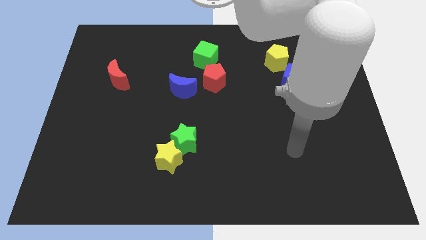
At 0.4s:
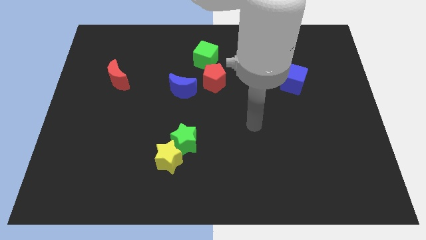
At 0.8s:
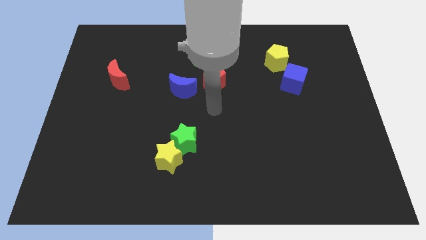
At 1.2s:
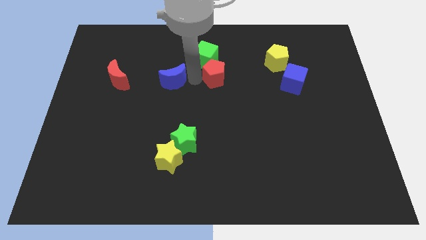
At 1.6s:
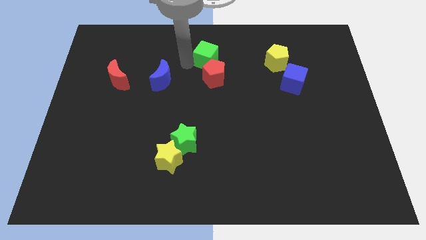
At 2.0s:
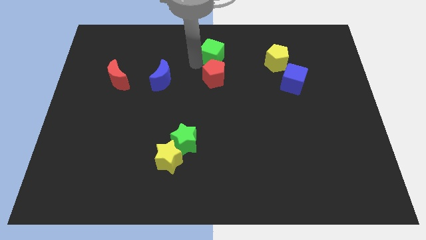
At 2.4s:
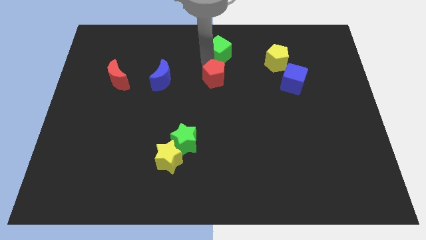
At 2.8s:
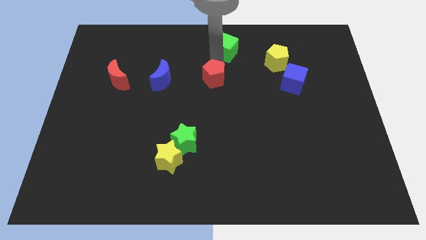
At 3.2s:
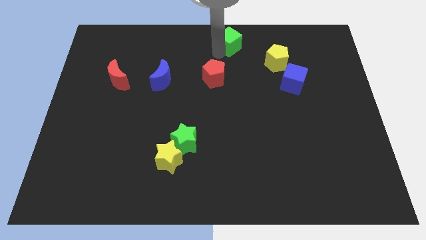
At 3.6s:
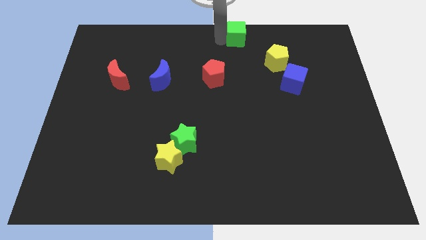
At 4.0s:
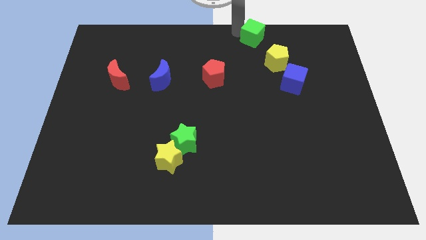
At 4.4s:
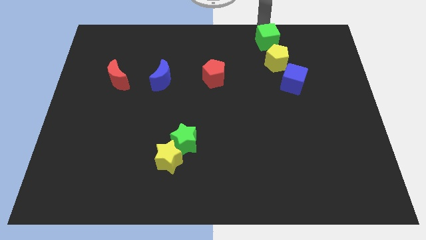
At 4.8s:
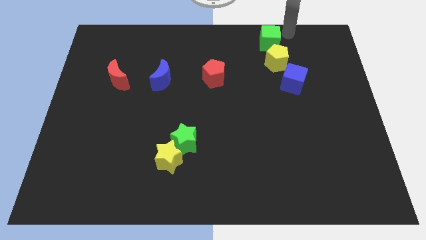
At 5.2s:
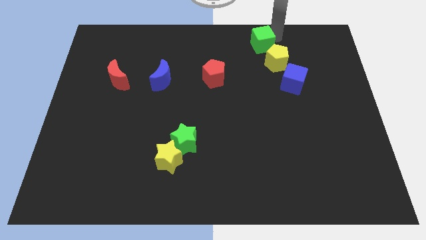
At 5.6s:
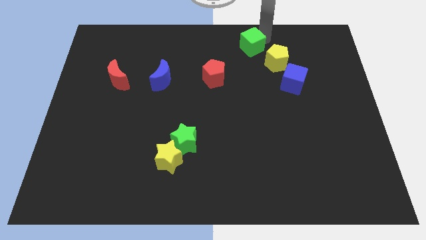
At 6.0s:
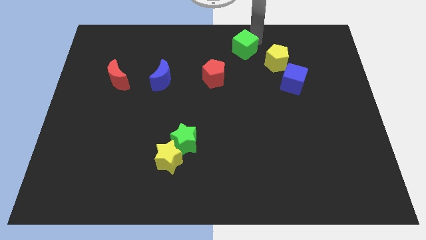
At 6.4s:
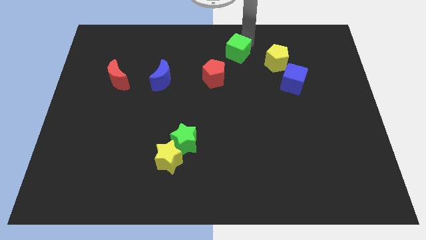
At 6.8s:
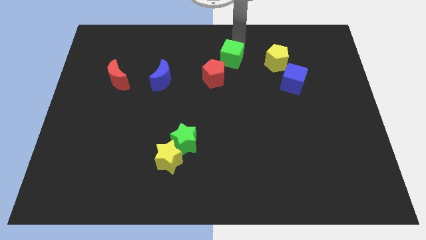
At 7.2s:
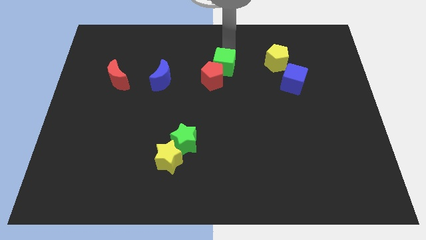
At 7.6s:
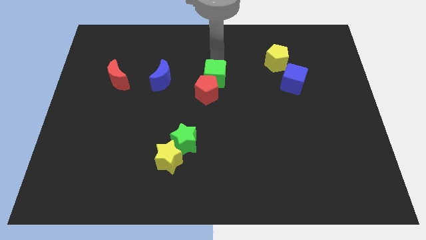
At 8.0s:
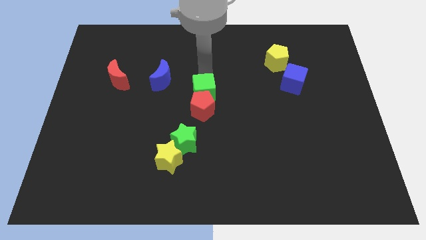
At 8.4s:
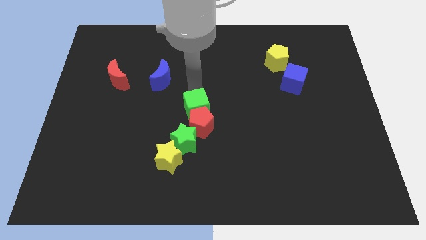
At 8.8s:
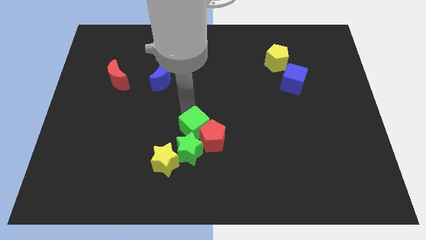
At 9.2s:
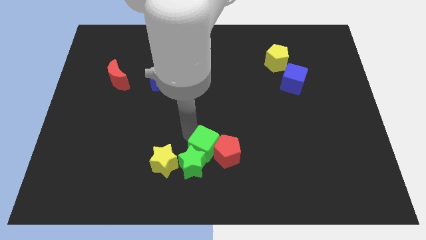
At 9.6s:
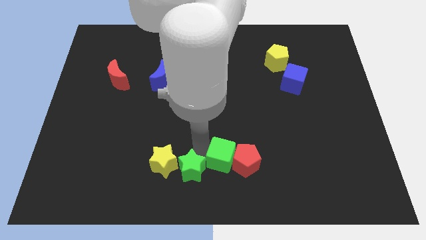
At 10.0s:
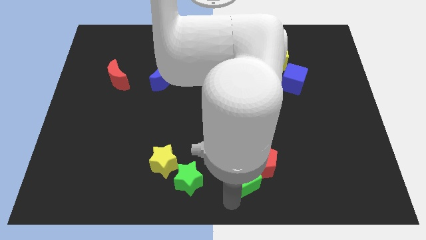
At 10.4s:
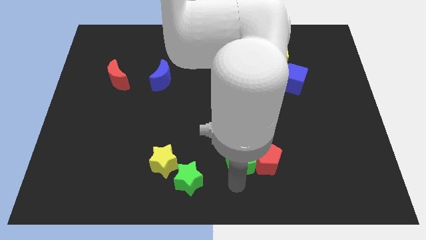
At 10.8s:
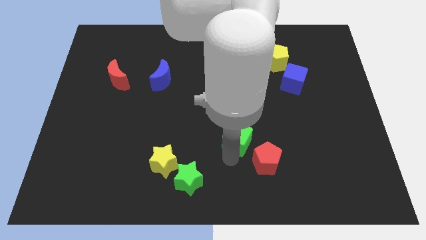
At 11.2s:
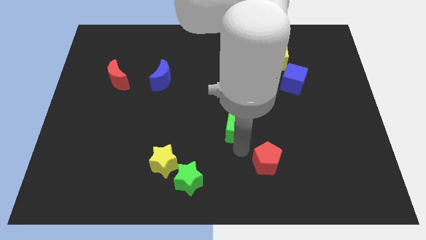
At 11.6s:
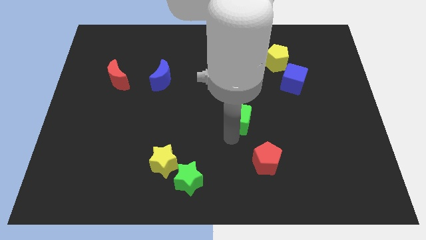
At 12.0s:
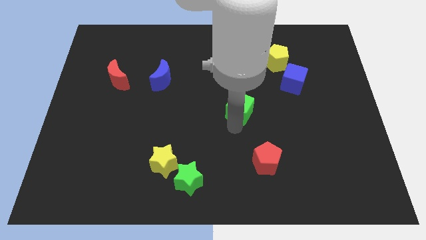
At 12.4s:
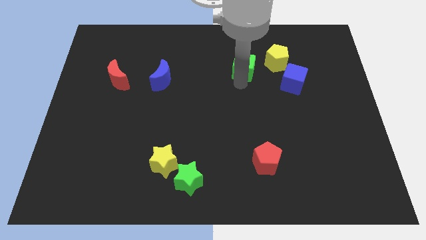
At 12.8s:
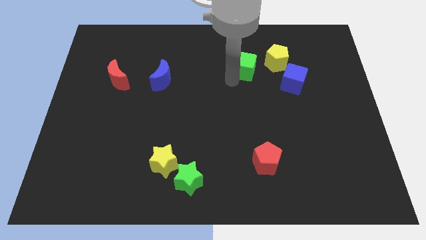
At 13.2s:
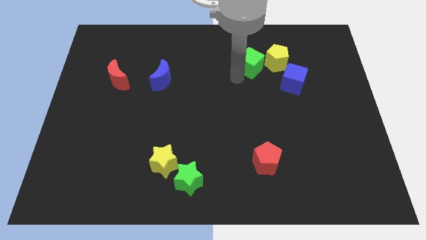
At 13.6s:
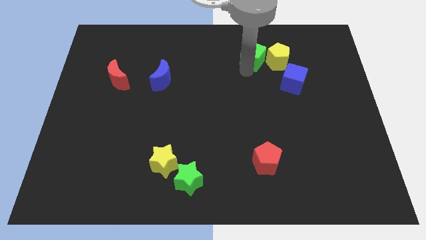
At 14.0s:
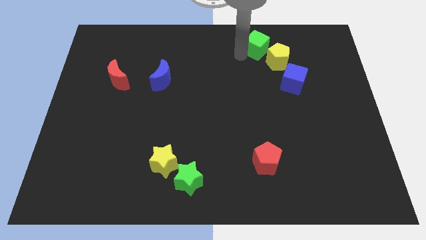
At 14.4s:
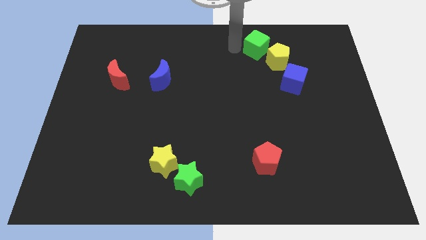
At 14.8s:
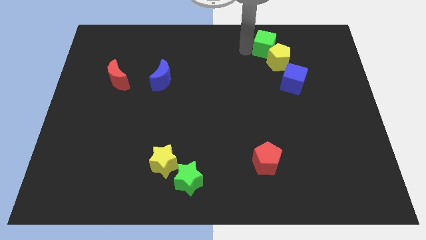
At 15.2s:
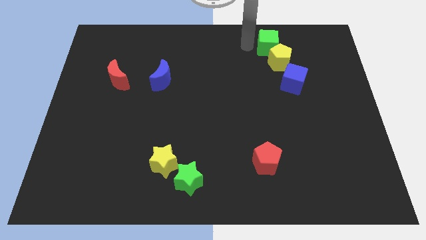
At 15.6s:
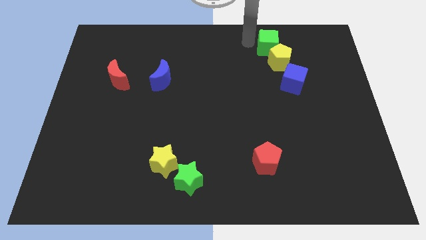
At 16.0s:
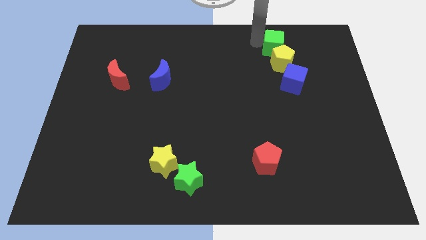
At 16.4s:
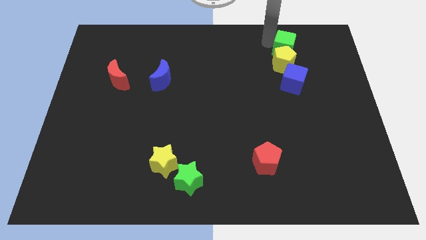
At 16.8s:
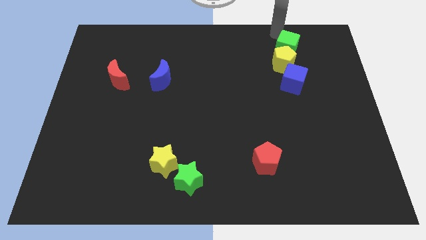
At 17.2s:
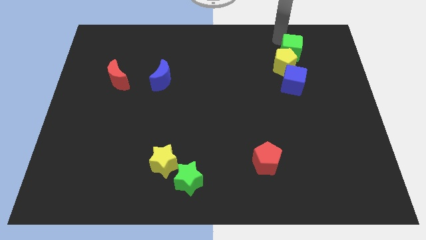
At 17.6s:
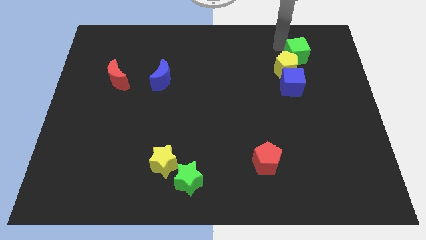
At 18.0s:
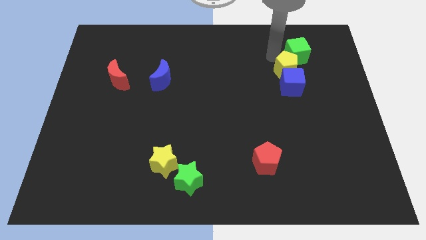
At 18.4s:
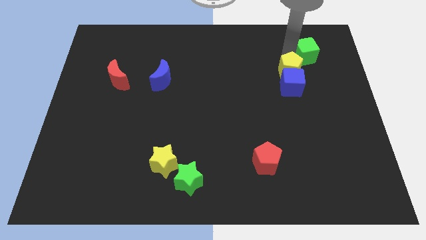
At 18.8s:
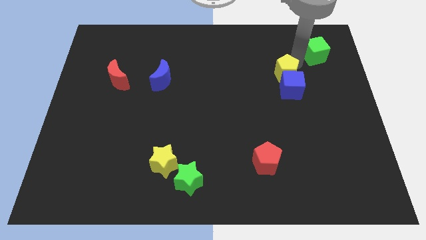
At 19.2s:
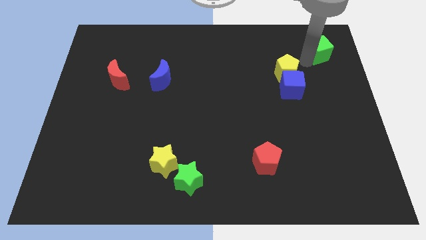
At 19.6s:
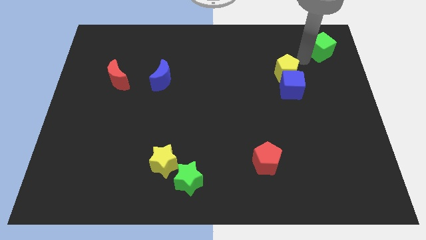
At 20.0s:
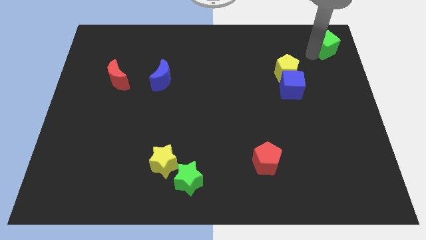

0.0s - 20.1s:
slide the green cube to the top right of the board

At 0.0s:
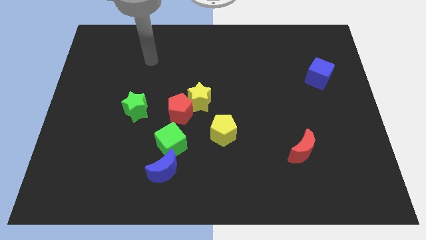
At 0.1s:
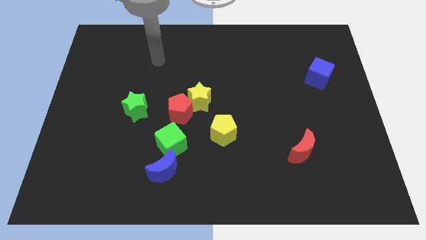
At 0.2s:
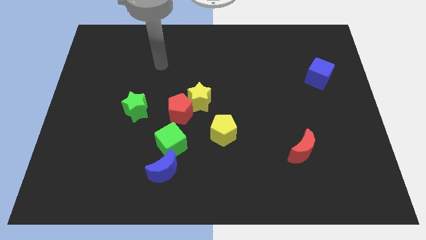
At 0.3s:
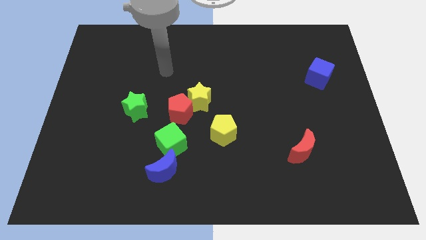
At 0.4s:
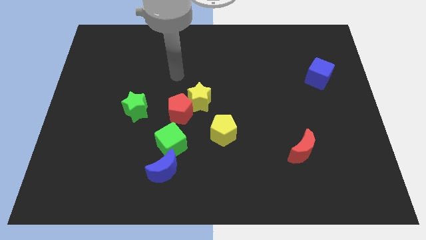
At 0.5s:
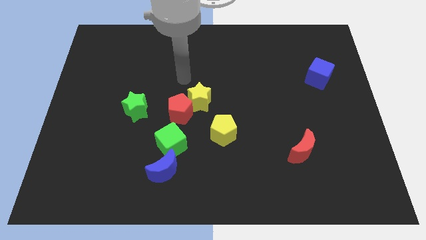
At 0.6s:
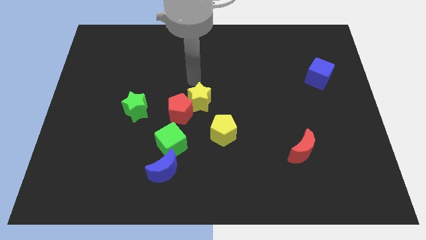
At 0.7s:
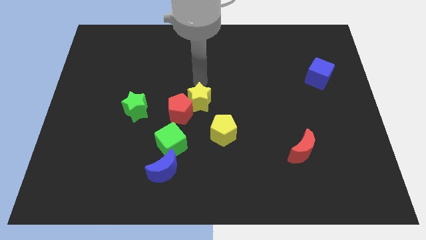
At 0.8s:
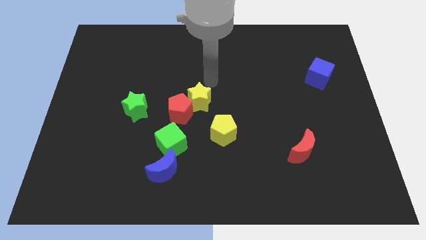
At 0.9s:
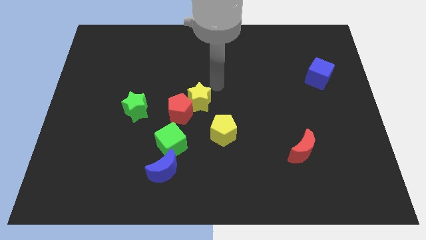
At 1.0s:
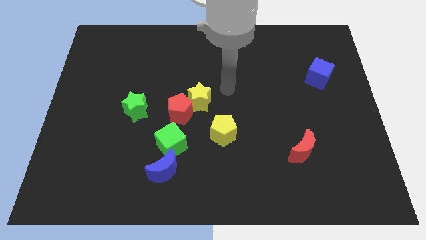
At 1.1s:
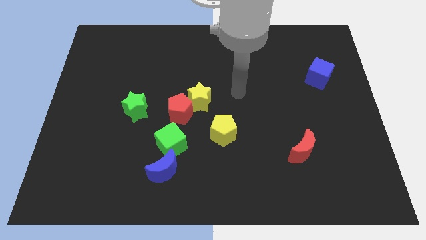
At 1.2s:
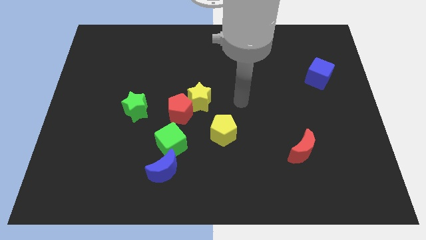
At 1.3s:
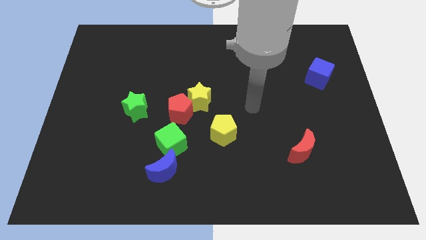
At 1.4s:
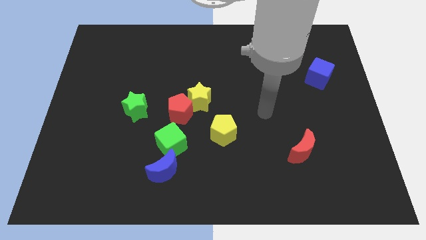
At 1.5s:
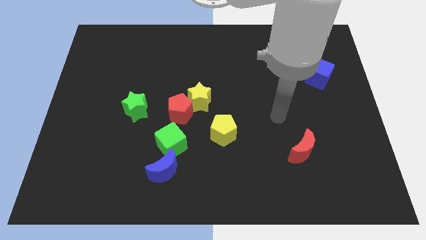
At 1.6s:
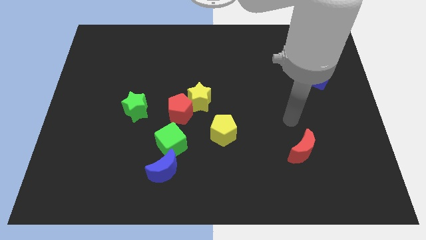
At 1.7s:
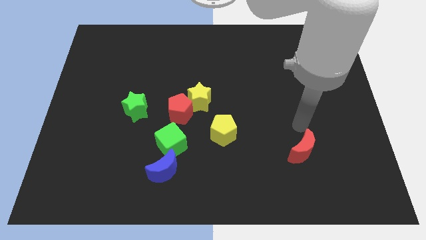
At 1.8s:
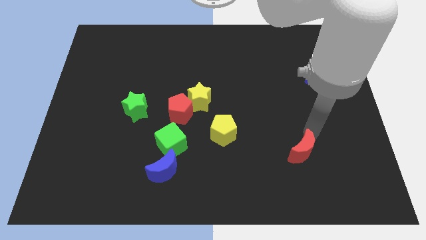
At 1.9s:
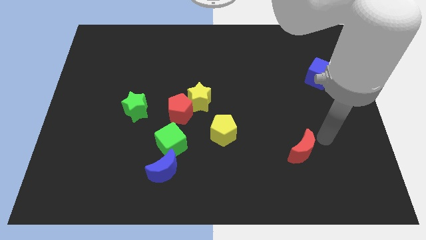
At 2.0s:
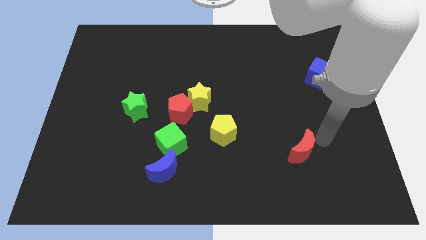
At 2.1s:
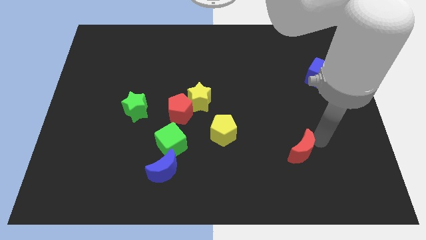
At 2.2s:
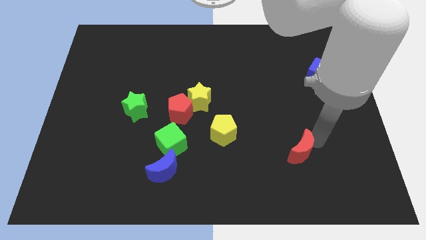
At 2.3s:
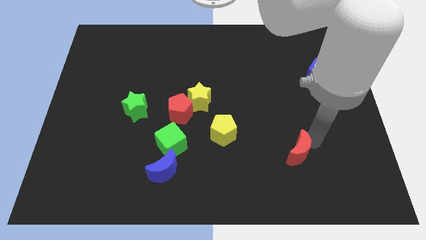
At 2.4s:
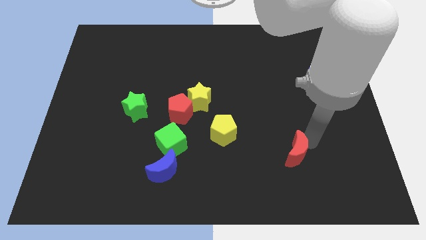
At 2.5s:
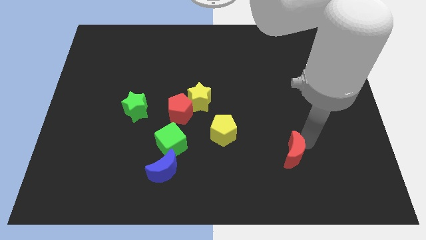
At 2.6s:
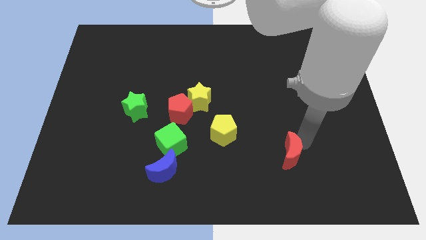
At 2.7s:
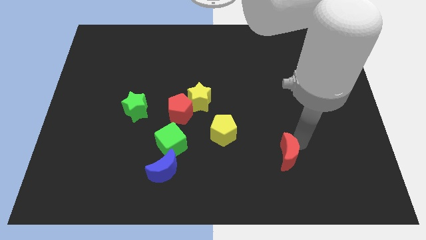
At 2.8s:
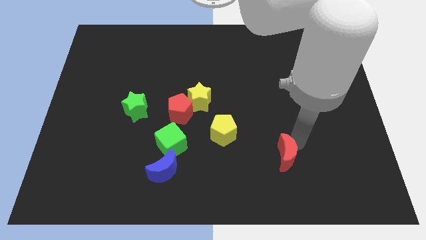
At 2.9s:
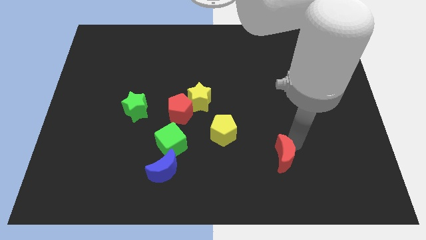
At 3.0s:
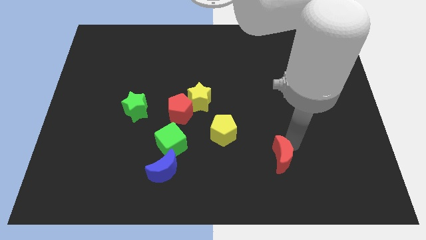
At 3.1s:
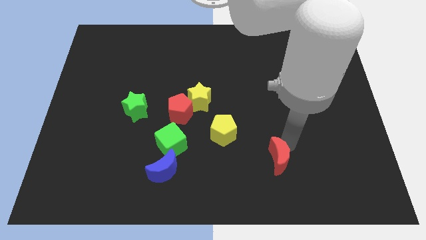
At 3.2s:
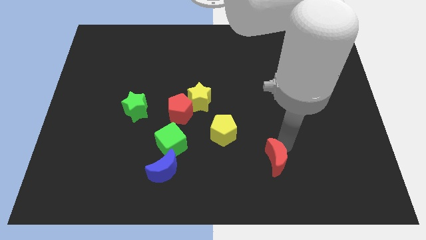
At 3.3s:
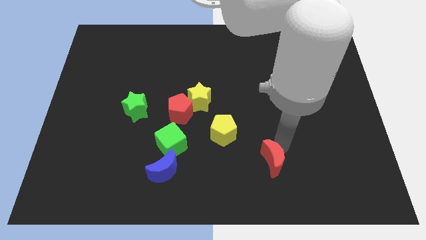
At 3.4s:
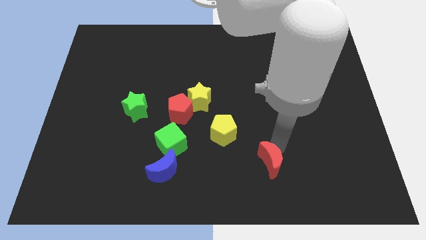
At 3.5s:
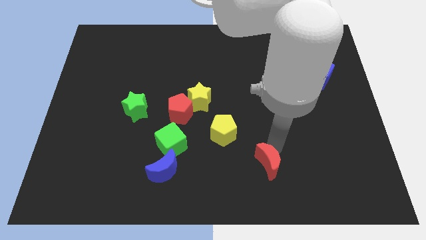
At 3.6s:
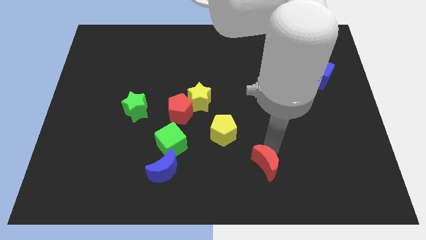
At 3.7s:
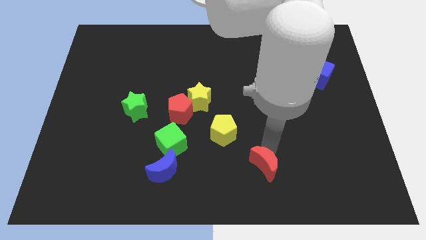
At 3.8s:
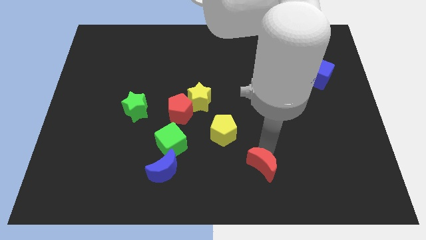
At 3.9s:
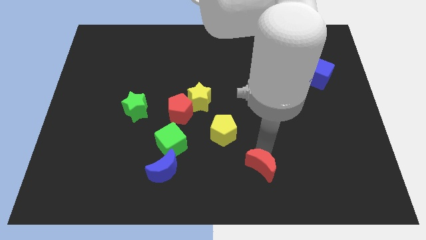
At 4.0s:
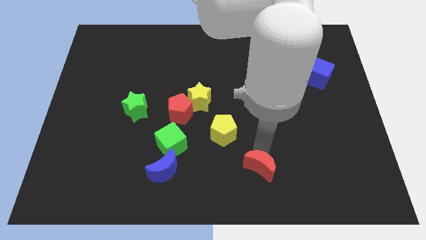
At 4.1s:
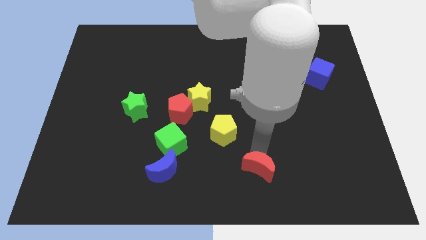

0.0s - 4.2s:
push the red moon to the bottom side
